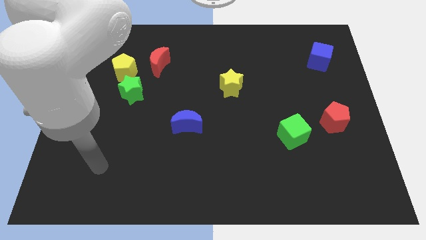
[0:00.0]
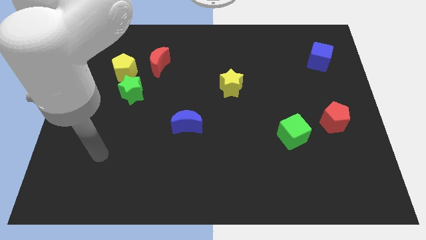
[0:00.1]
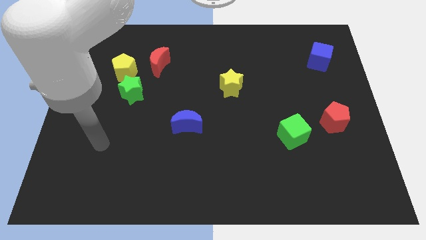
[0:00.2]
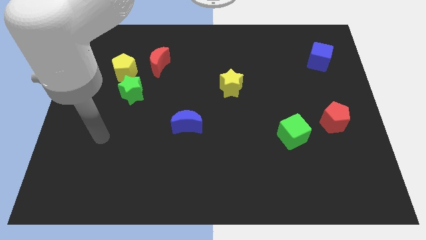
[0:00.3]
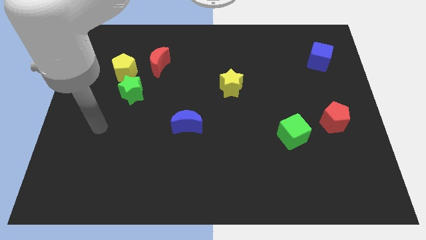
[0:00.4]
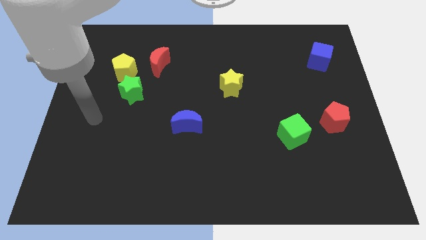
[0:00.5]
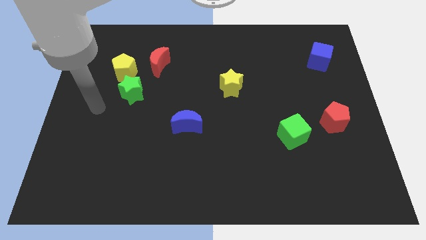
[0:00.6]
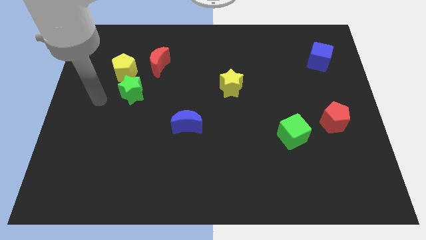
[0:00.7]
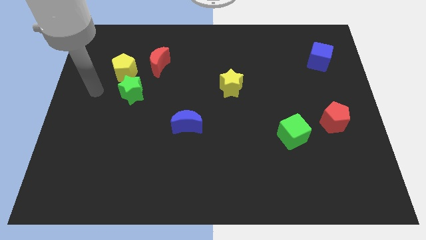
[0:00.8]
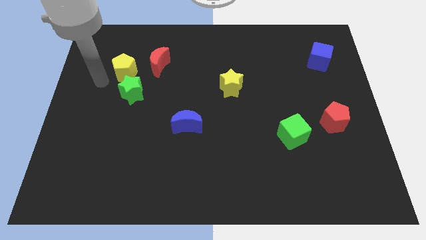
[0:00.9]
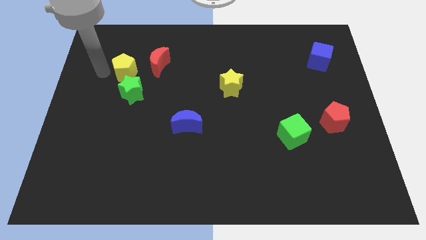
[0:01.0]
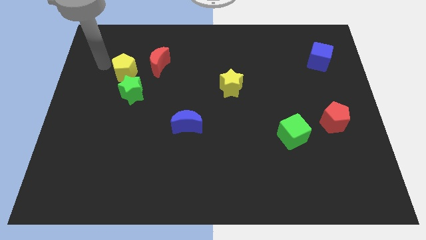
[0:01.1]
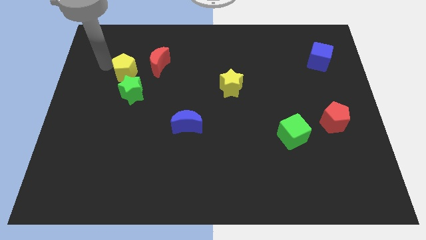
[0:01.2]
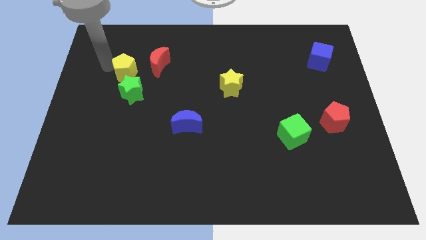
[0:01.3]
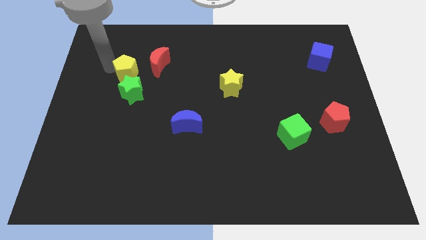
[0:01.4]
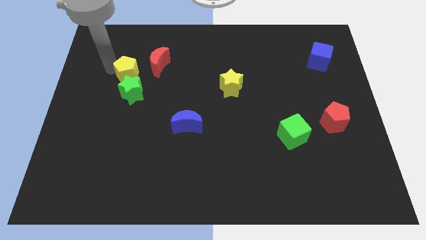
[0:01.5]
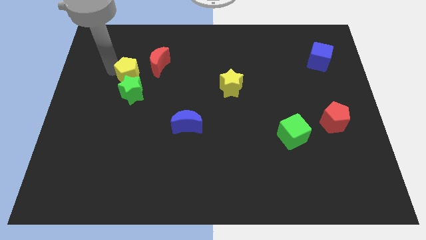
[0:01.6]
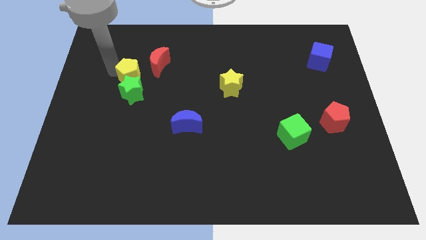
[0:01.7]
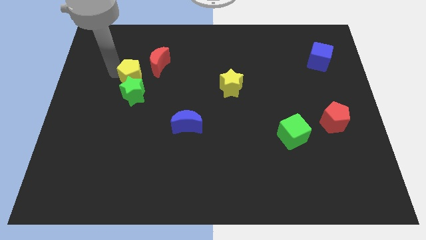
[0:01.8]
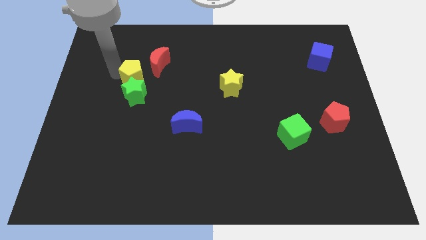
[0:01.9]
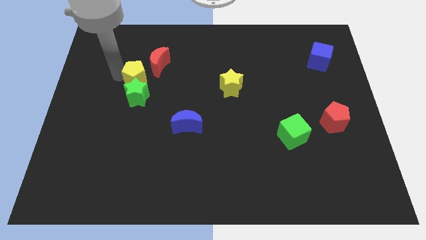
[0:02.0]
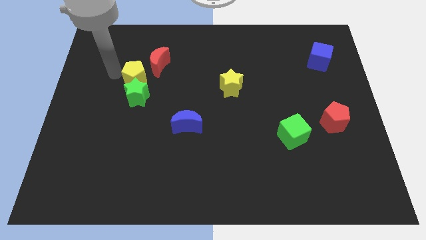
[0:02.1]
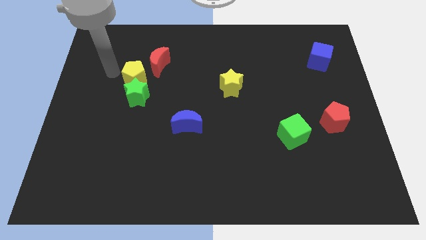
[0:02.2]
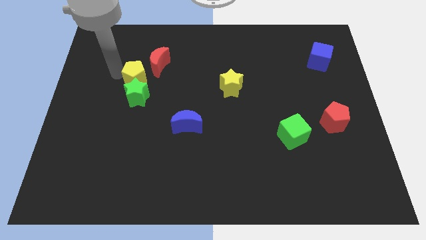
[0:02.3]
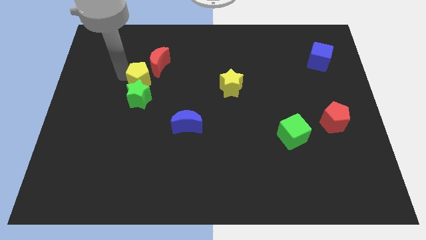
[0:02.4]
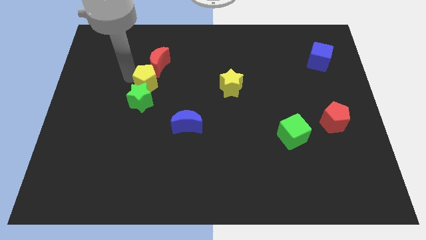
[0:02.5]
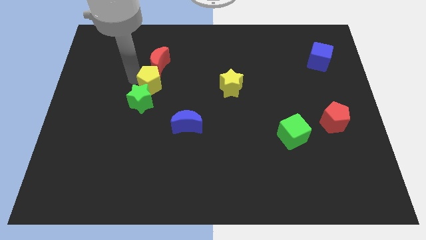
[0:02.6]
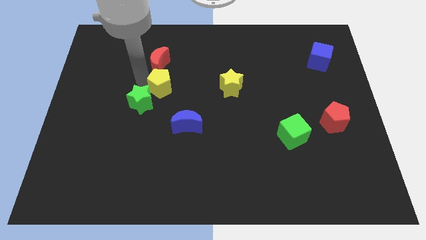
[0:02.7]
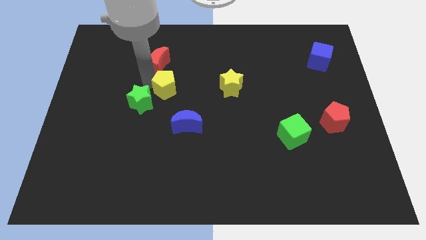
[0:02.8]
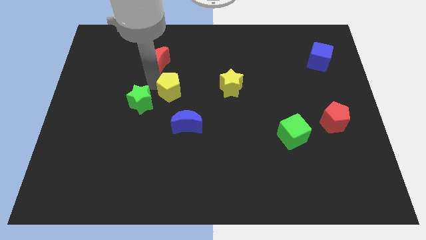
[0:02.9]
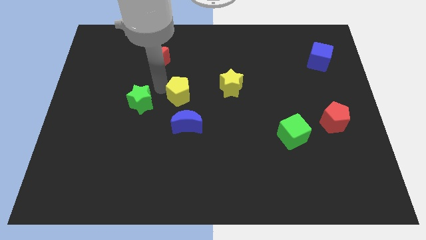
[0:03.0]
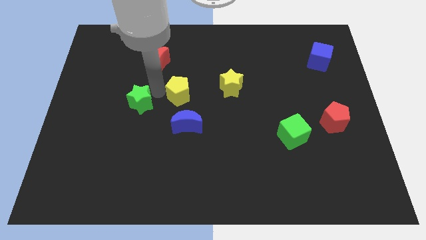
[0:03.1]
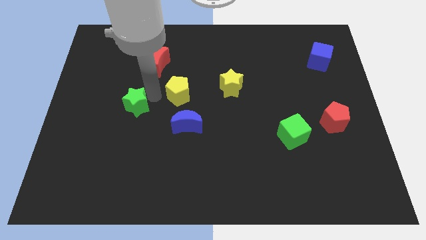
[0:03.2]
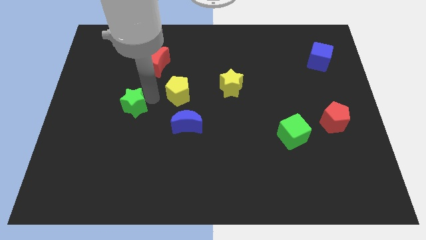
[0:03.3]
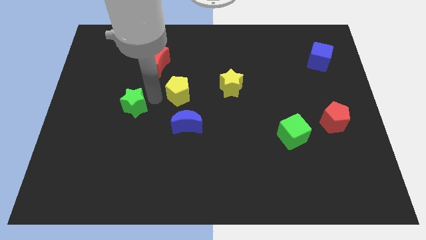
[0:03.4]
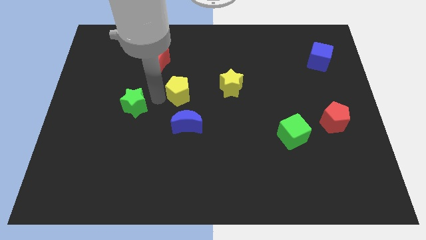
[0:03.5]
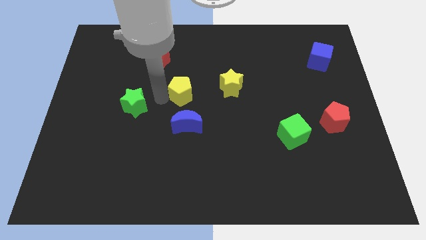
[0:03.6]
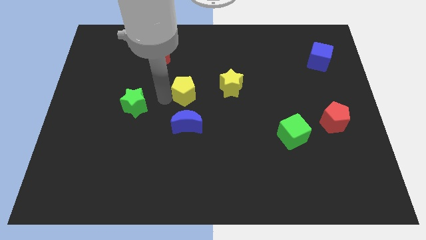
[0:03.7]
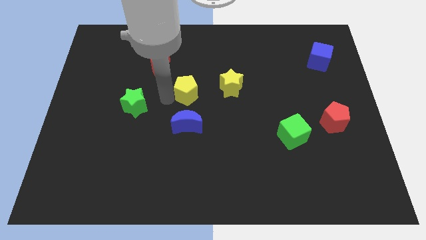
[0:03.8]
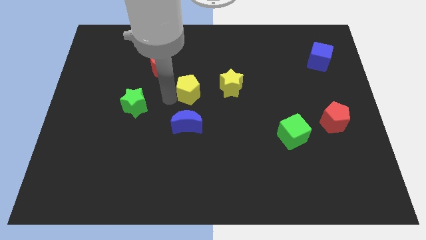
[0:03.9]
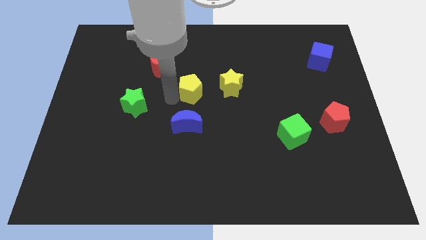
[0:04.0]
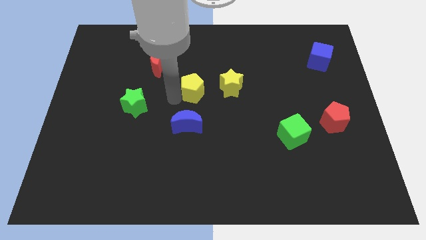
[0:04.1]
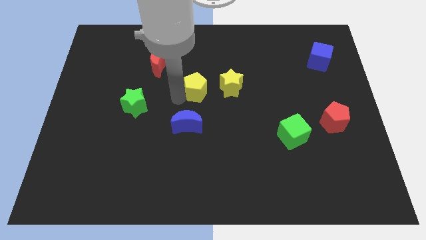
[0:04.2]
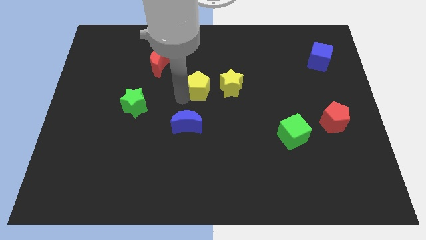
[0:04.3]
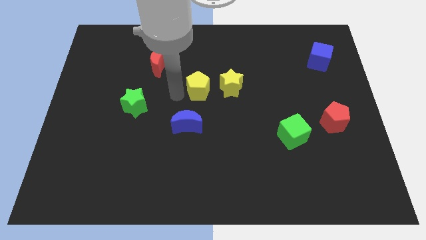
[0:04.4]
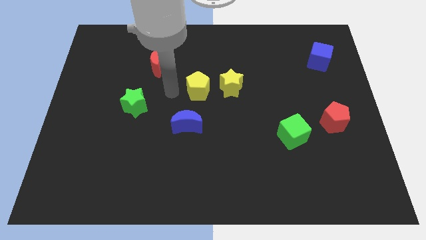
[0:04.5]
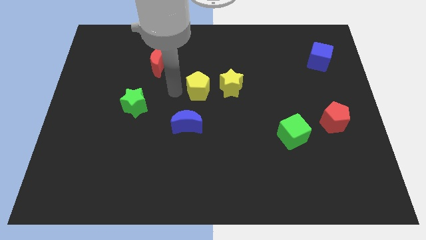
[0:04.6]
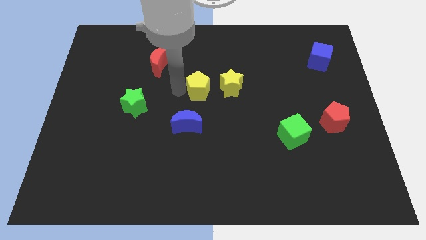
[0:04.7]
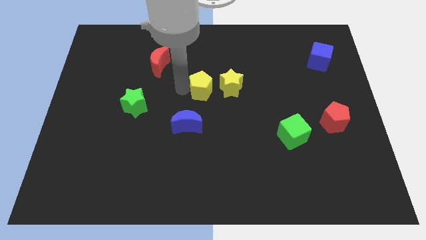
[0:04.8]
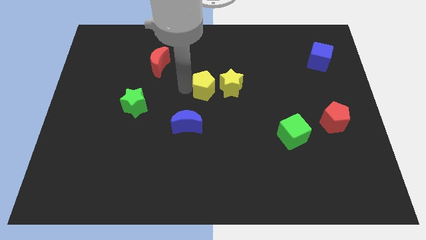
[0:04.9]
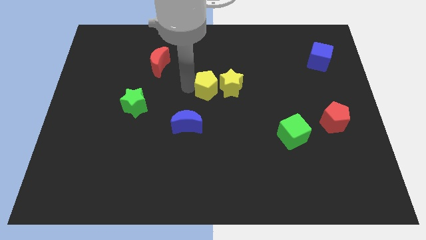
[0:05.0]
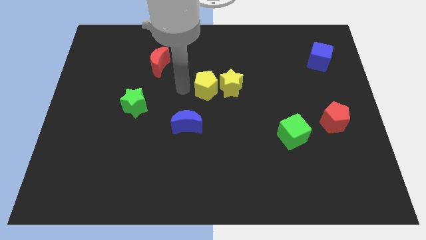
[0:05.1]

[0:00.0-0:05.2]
move the yellow pentagon close to the yellow star

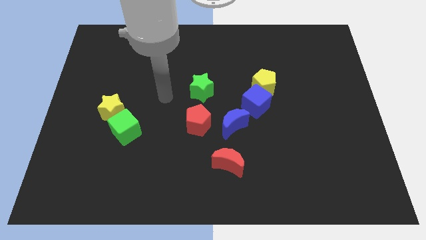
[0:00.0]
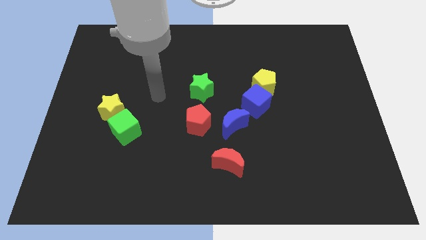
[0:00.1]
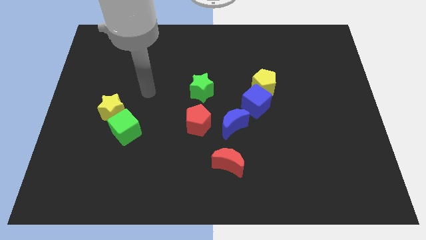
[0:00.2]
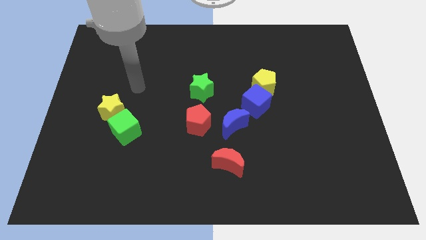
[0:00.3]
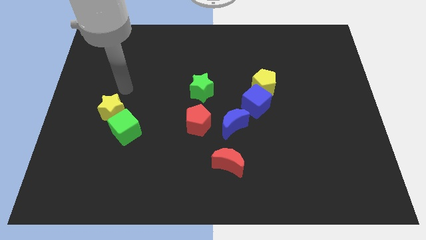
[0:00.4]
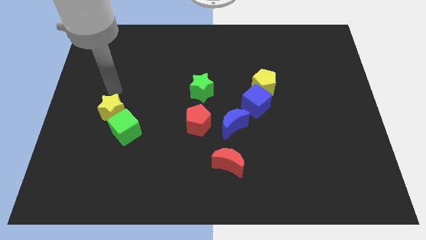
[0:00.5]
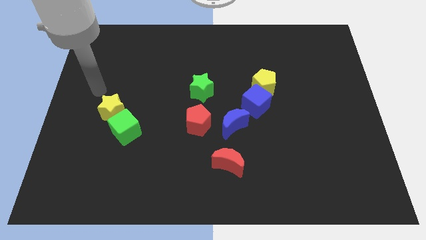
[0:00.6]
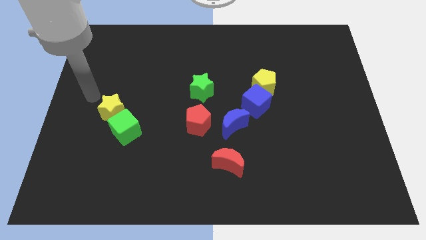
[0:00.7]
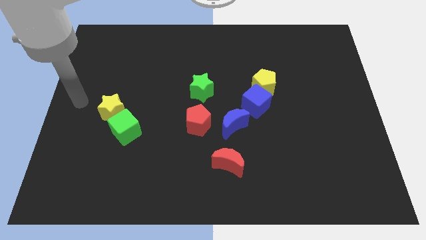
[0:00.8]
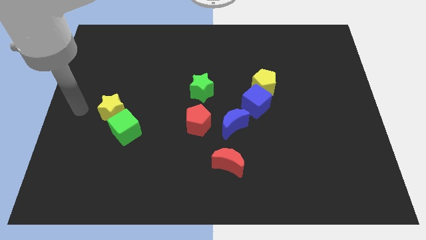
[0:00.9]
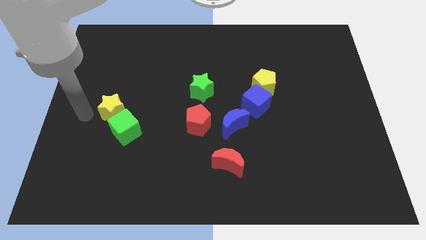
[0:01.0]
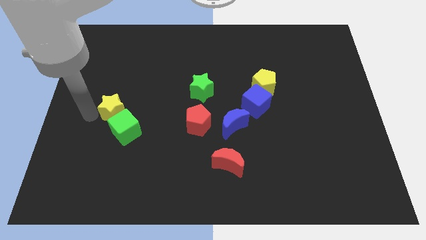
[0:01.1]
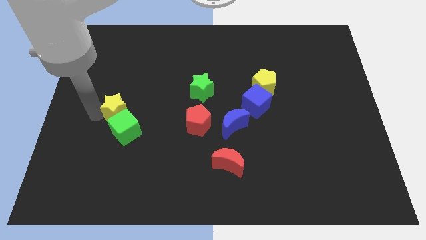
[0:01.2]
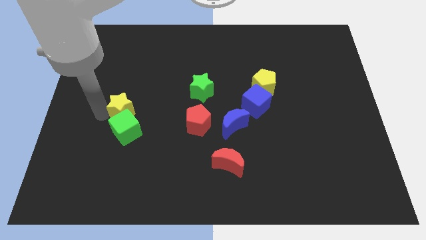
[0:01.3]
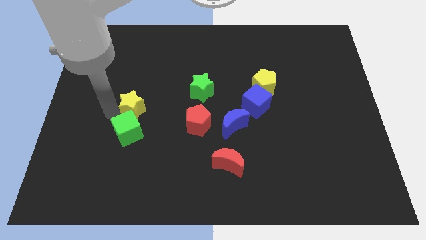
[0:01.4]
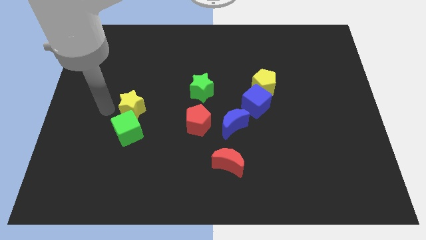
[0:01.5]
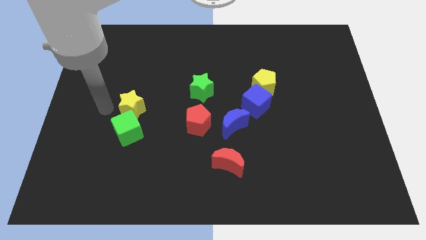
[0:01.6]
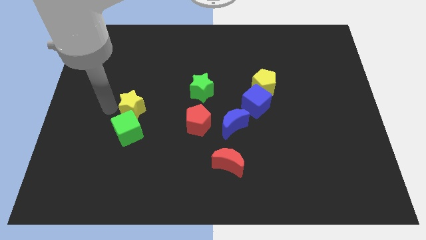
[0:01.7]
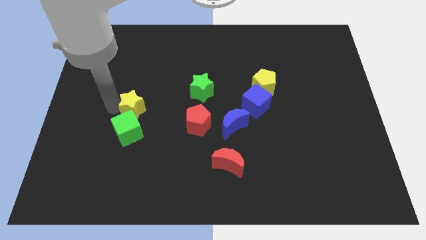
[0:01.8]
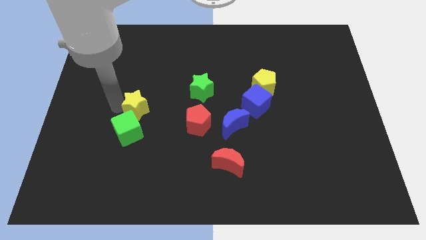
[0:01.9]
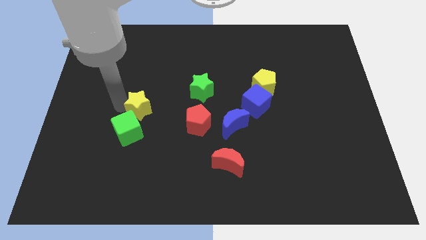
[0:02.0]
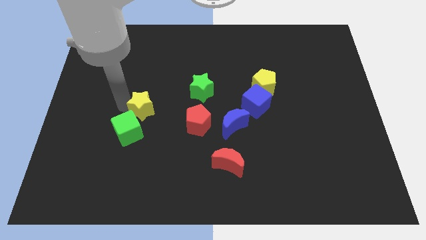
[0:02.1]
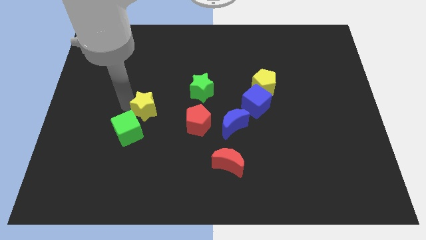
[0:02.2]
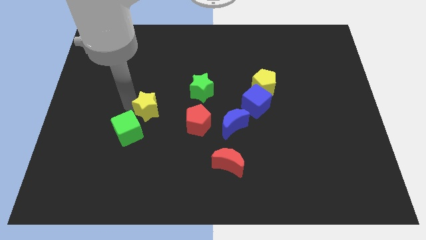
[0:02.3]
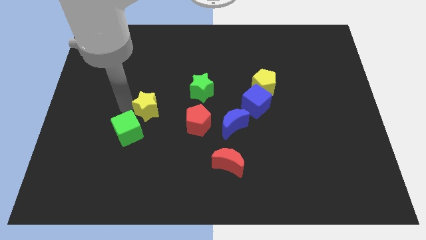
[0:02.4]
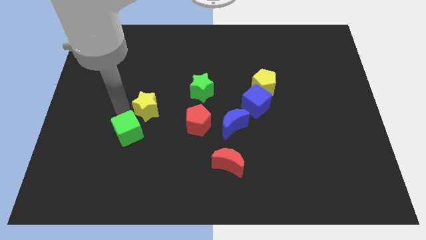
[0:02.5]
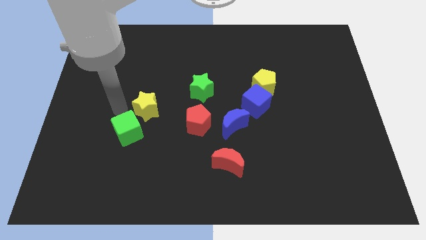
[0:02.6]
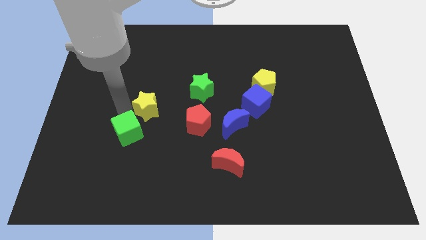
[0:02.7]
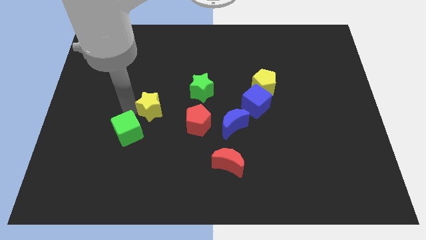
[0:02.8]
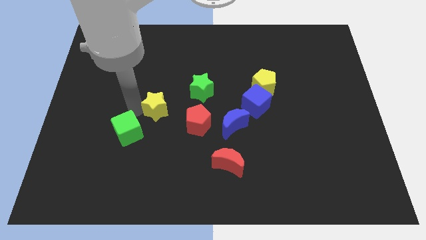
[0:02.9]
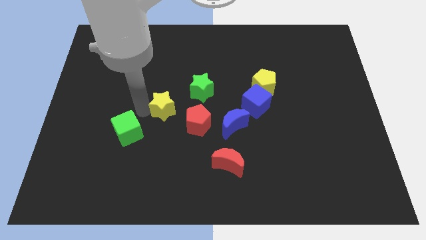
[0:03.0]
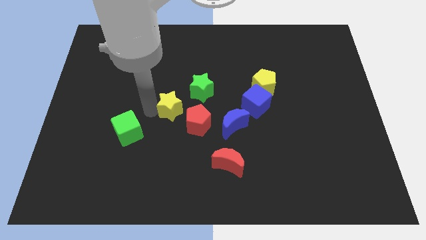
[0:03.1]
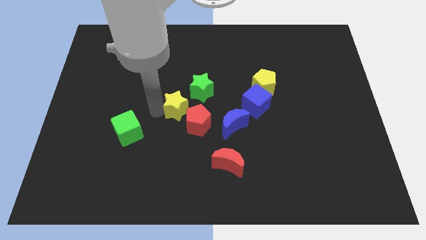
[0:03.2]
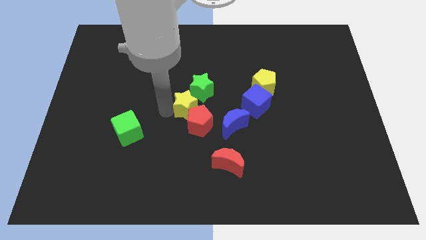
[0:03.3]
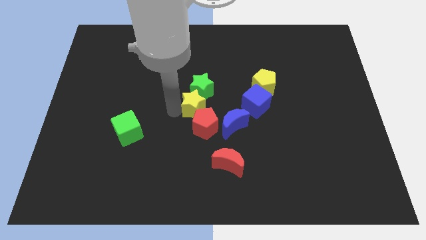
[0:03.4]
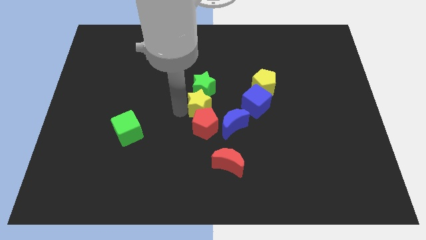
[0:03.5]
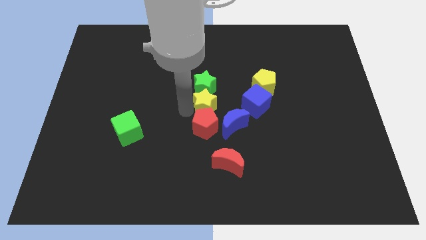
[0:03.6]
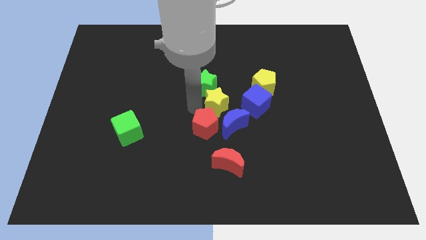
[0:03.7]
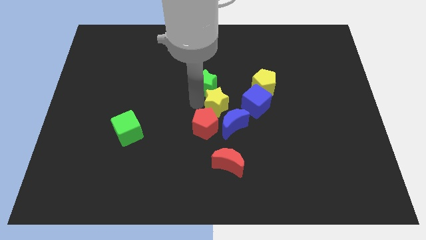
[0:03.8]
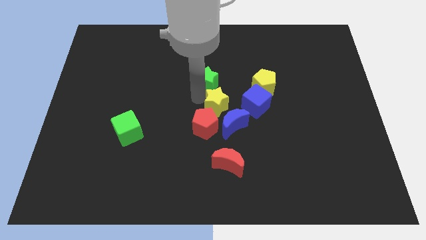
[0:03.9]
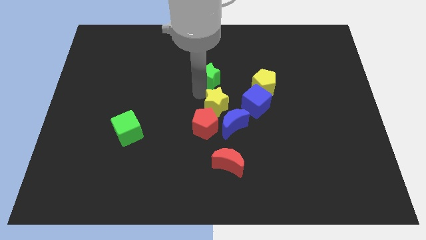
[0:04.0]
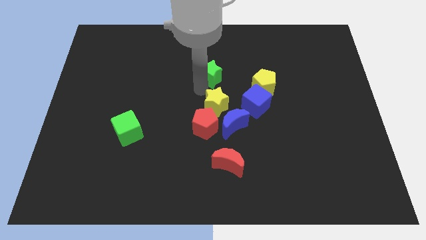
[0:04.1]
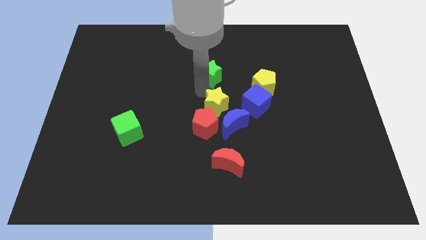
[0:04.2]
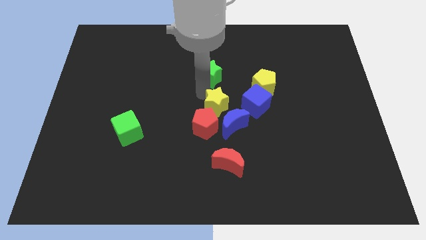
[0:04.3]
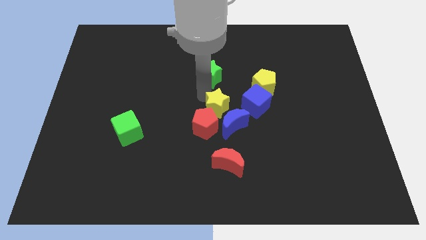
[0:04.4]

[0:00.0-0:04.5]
put the yellow star next to the blue moon
